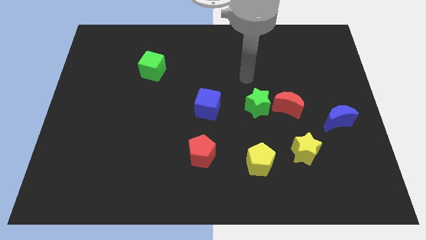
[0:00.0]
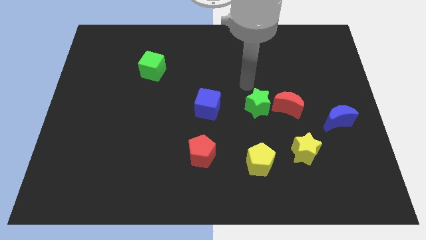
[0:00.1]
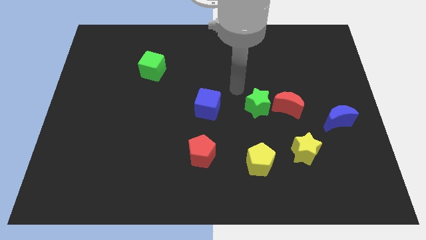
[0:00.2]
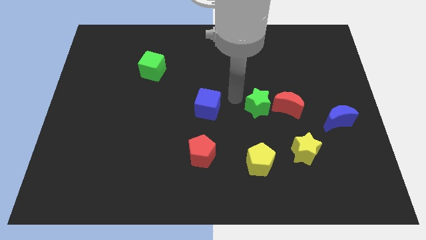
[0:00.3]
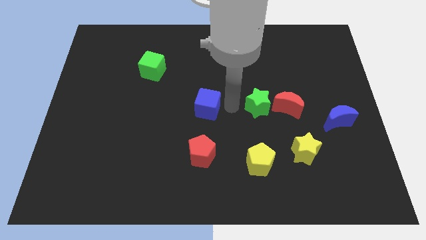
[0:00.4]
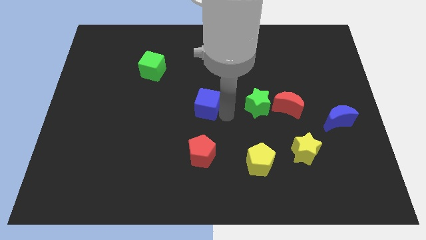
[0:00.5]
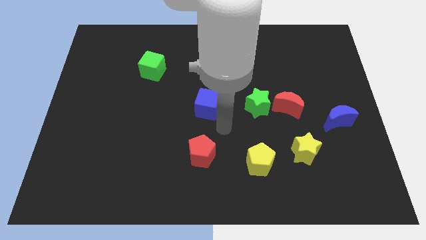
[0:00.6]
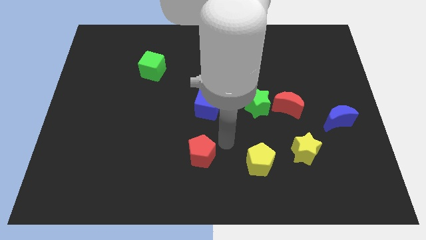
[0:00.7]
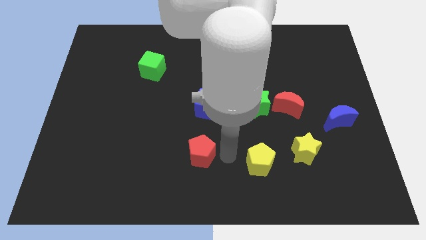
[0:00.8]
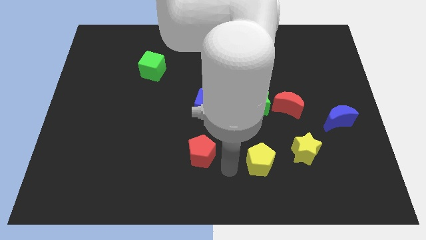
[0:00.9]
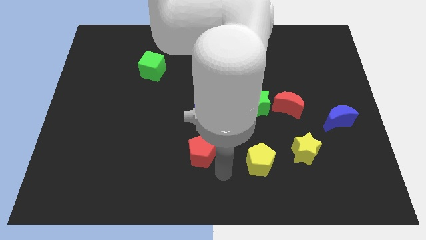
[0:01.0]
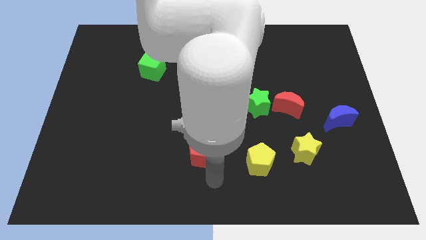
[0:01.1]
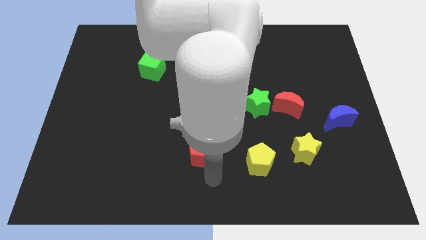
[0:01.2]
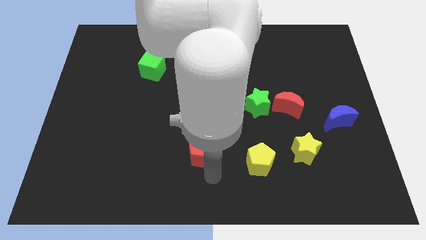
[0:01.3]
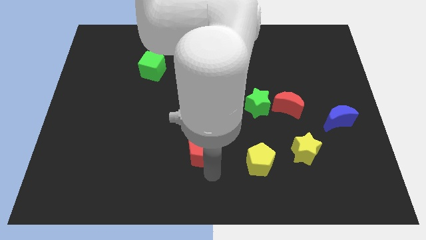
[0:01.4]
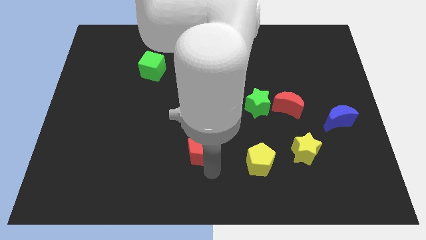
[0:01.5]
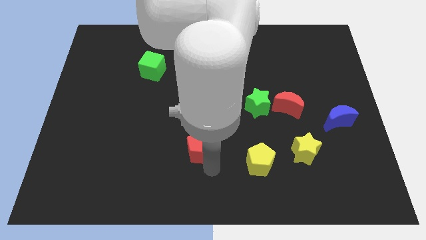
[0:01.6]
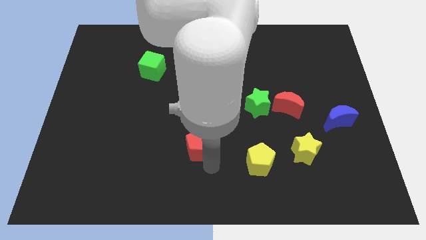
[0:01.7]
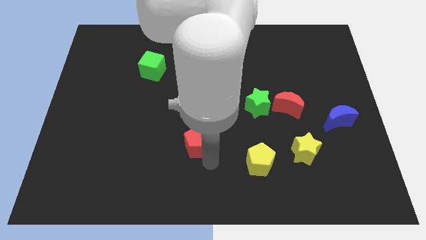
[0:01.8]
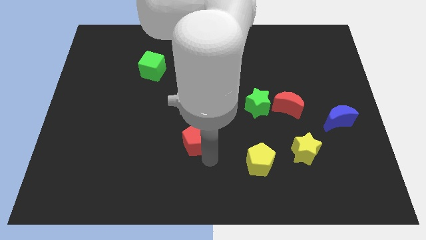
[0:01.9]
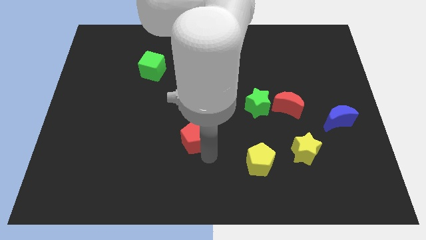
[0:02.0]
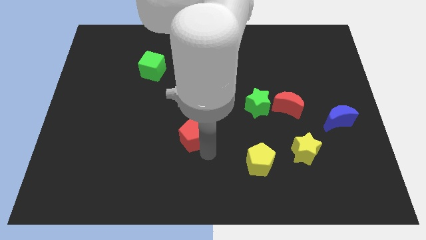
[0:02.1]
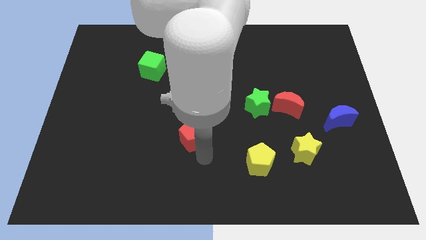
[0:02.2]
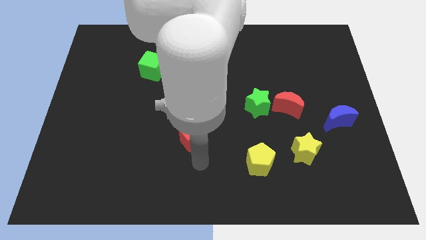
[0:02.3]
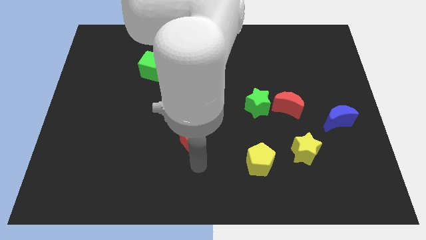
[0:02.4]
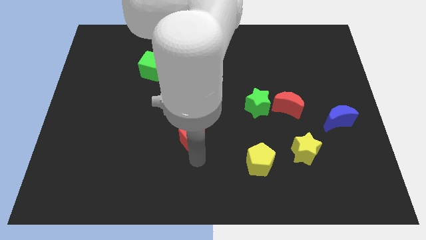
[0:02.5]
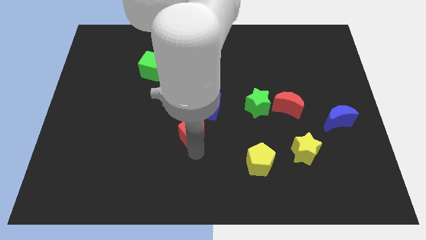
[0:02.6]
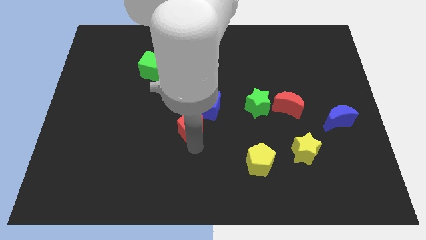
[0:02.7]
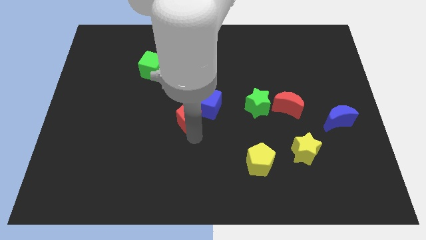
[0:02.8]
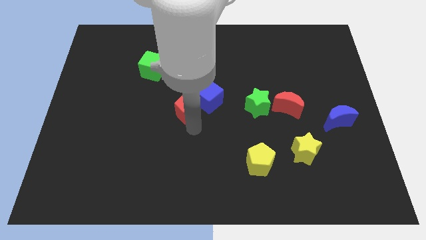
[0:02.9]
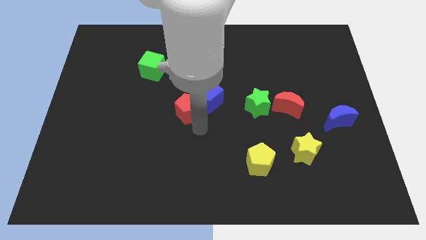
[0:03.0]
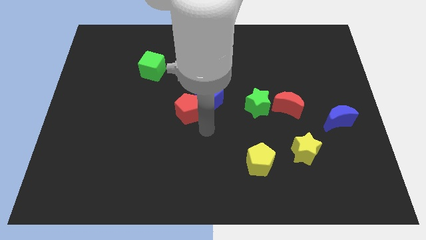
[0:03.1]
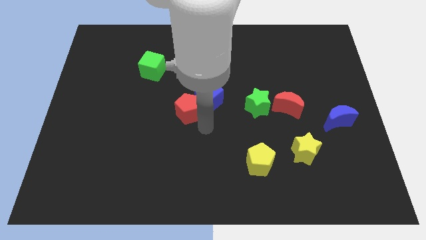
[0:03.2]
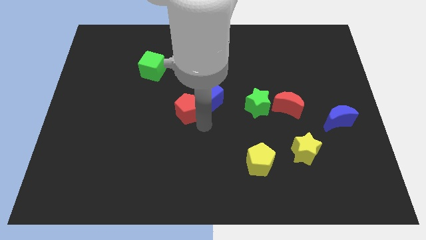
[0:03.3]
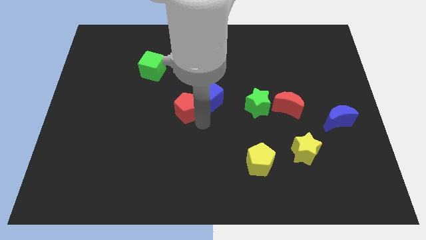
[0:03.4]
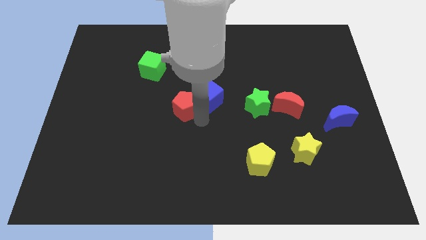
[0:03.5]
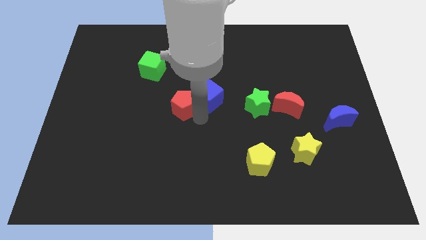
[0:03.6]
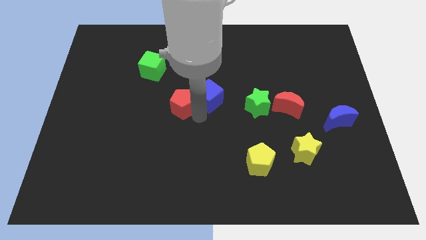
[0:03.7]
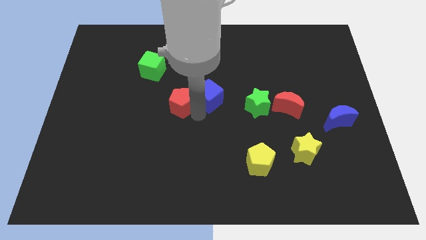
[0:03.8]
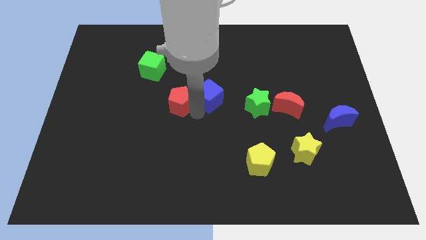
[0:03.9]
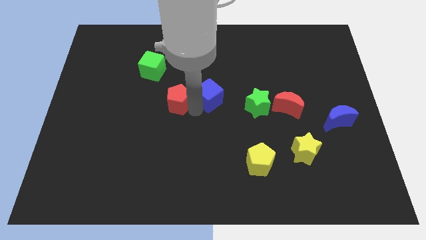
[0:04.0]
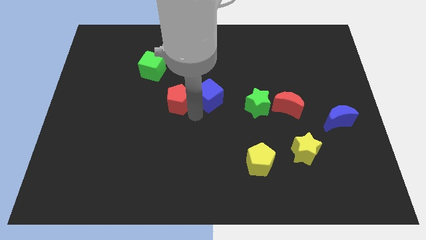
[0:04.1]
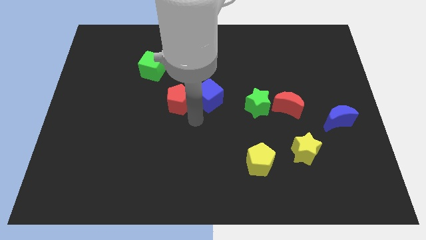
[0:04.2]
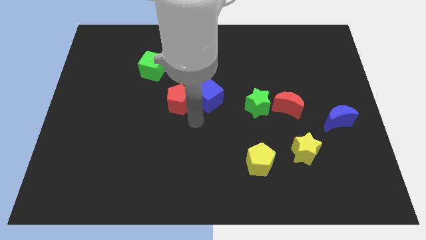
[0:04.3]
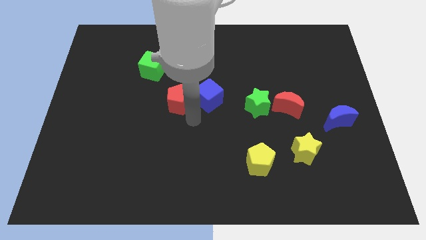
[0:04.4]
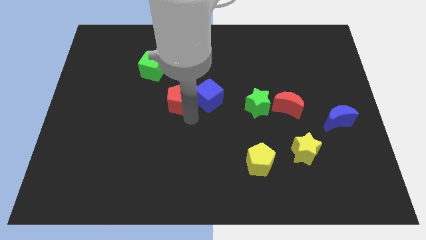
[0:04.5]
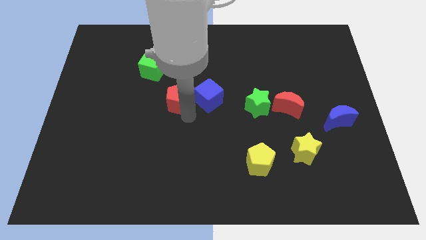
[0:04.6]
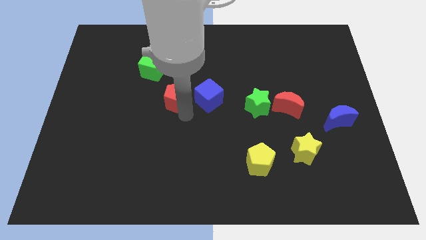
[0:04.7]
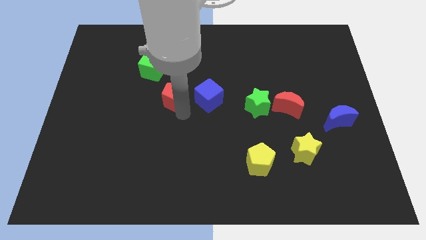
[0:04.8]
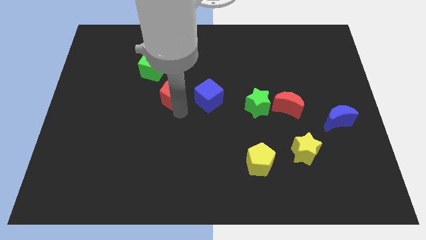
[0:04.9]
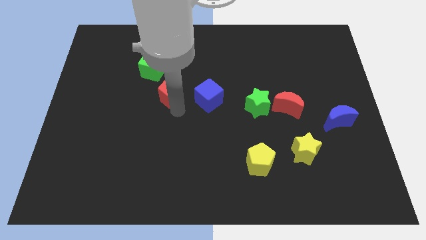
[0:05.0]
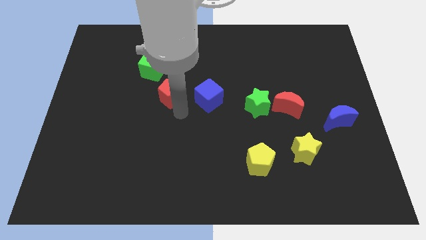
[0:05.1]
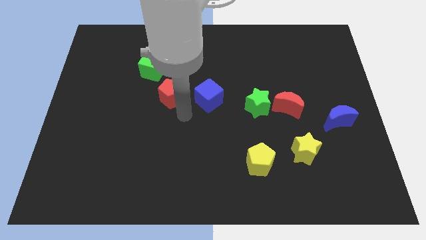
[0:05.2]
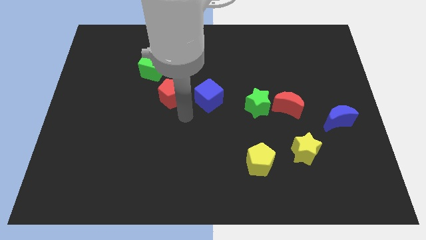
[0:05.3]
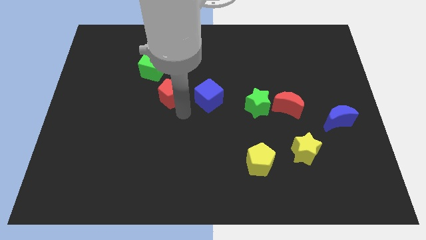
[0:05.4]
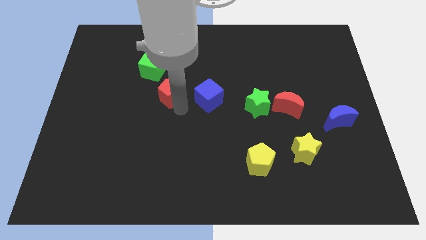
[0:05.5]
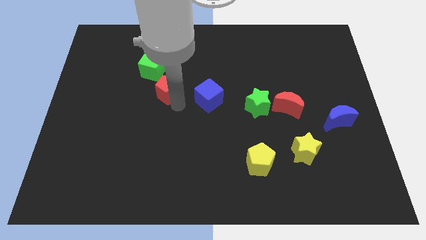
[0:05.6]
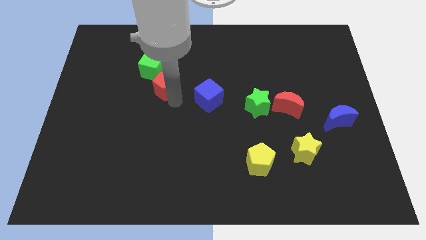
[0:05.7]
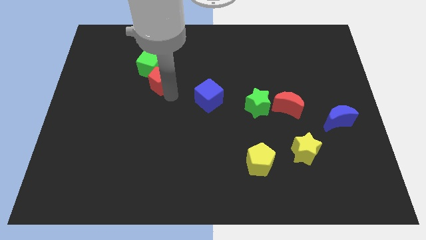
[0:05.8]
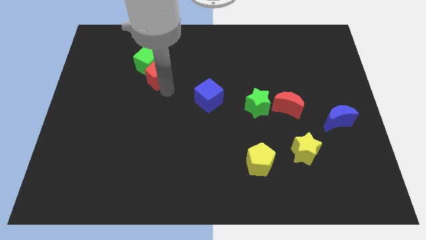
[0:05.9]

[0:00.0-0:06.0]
slide the red pentagon to the green cube

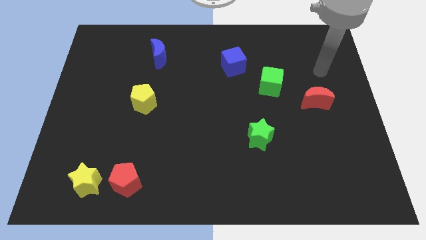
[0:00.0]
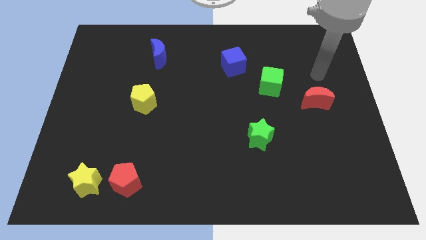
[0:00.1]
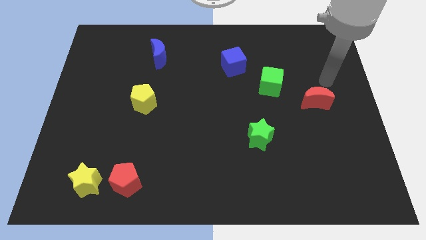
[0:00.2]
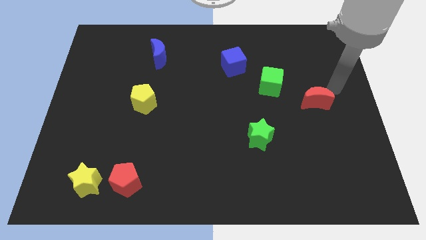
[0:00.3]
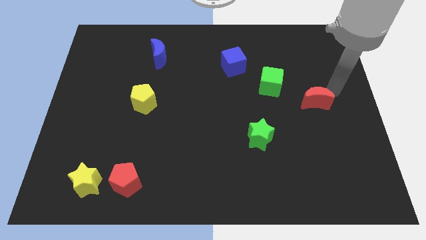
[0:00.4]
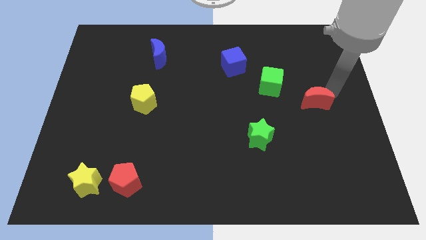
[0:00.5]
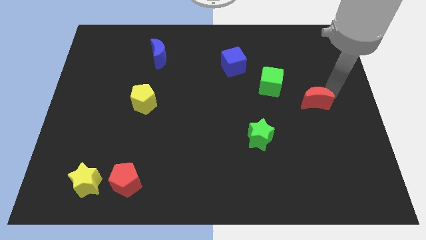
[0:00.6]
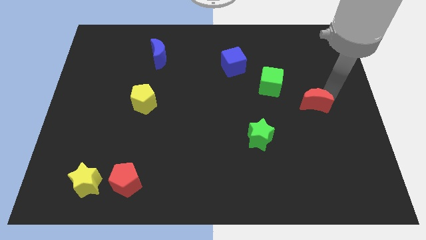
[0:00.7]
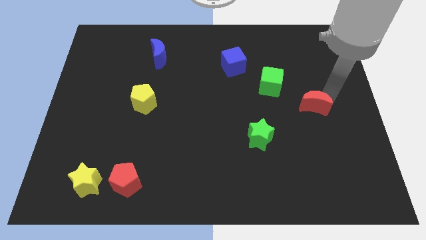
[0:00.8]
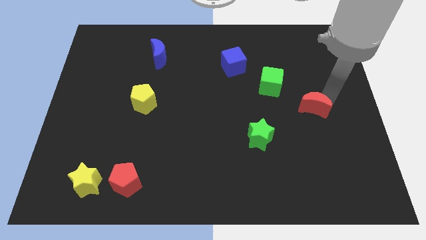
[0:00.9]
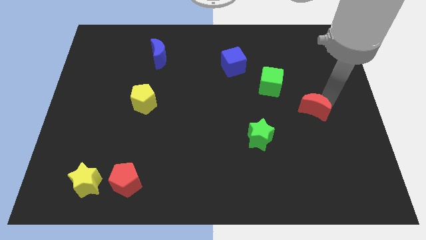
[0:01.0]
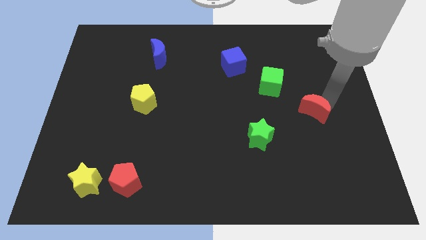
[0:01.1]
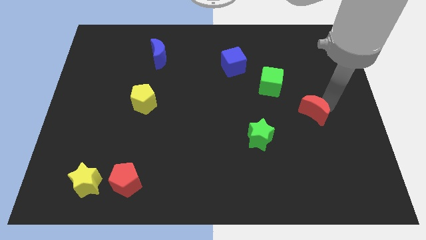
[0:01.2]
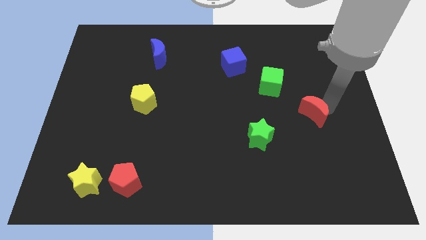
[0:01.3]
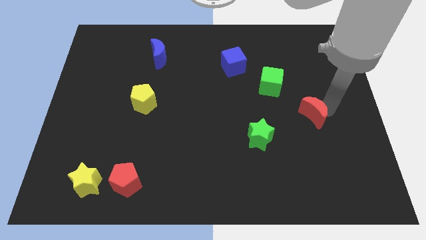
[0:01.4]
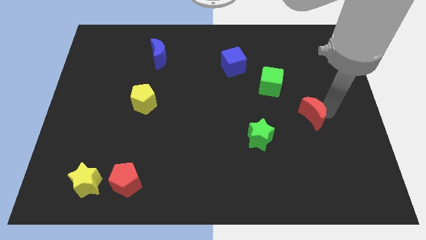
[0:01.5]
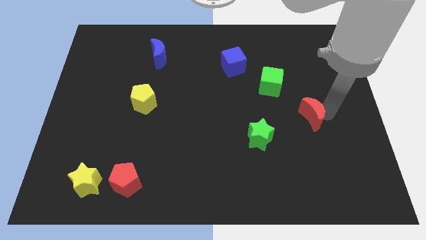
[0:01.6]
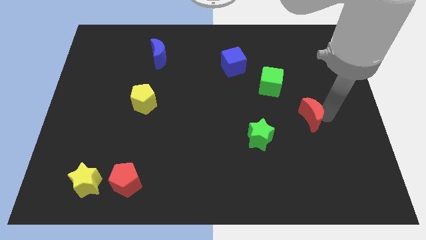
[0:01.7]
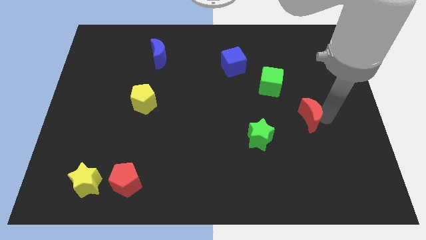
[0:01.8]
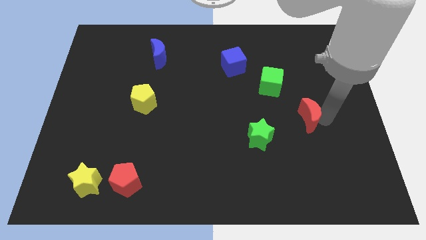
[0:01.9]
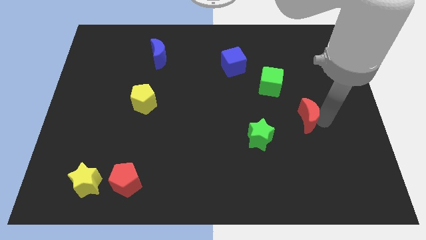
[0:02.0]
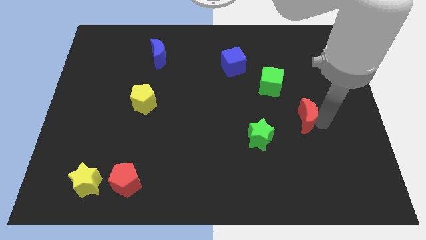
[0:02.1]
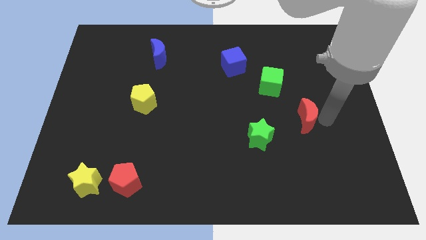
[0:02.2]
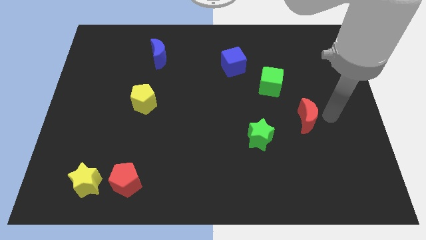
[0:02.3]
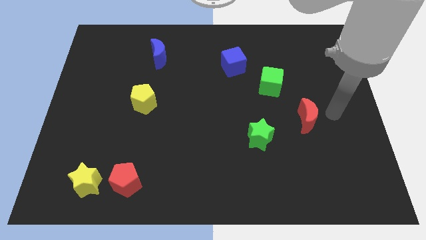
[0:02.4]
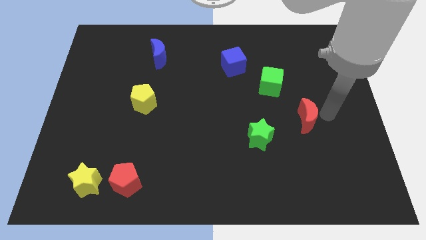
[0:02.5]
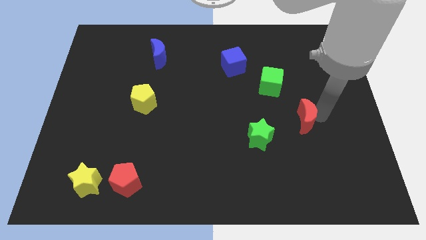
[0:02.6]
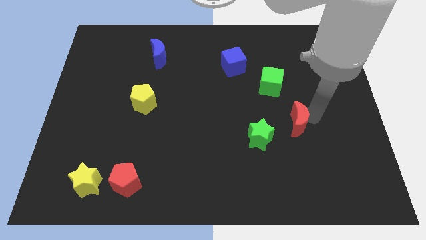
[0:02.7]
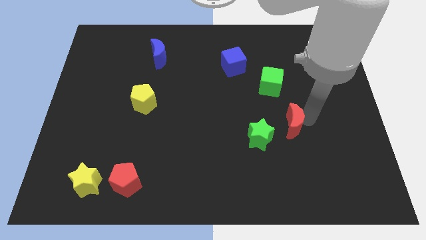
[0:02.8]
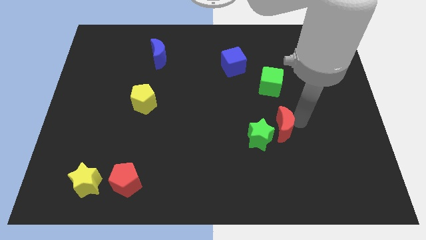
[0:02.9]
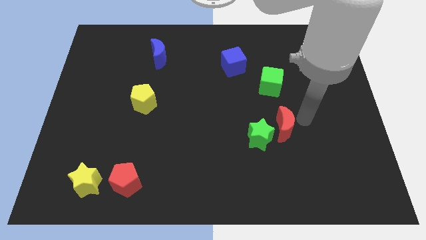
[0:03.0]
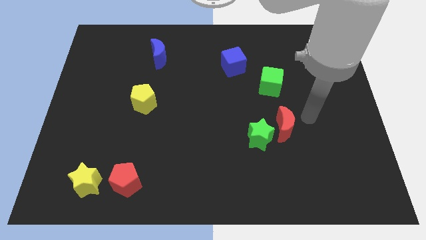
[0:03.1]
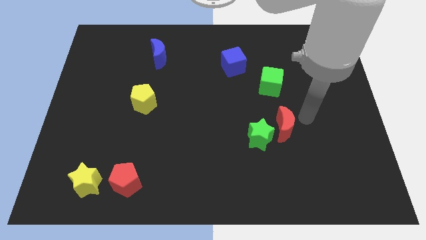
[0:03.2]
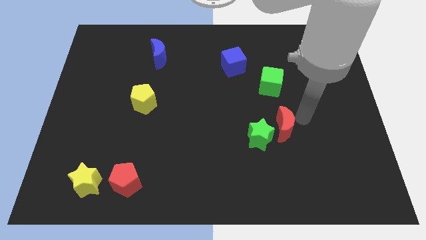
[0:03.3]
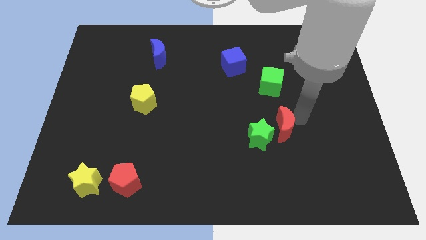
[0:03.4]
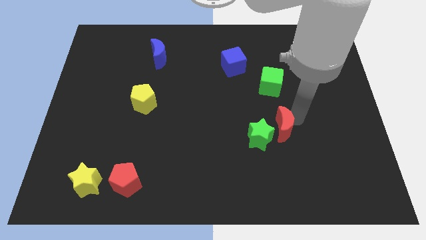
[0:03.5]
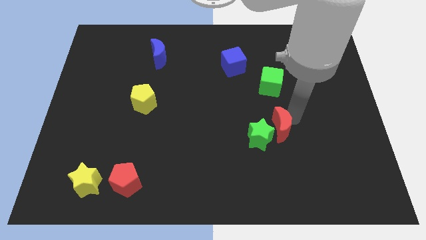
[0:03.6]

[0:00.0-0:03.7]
slide the red moon to the green star
